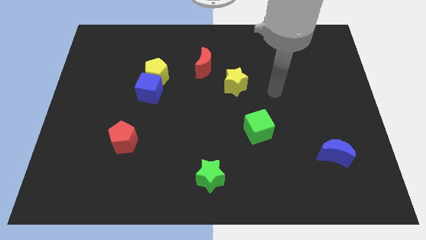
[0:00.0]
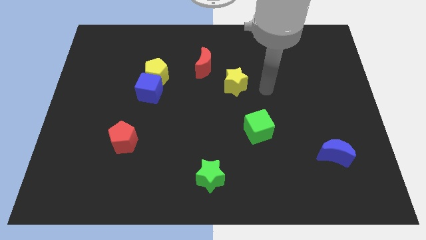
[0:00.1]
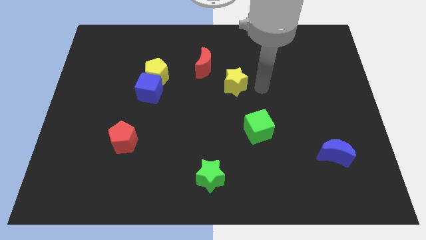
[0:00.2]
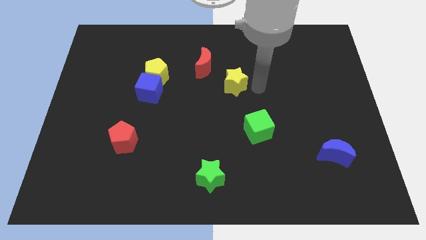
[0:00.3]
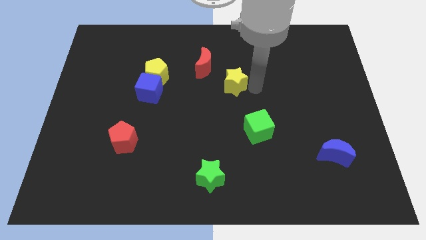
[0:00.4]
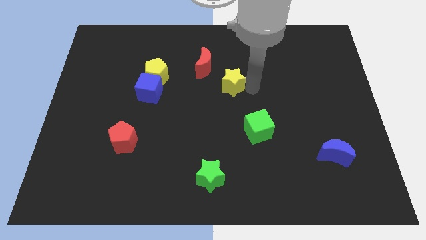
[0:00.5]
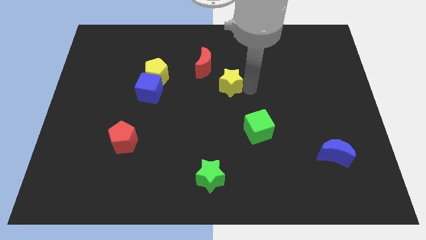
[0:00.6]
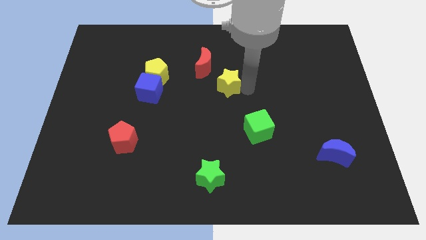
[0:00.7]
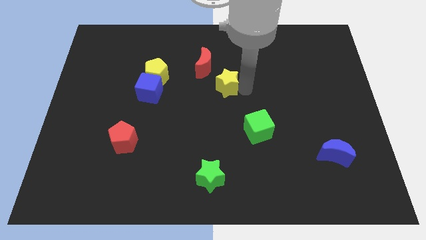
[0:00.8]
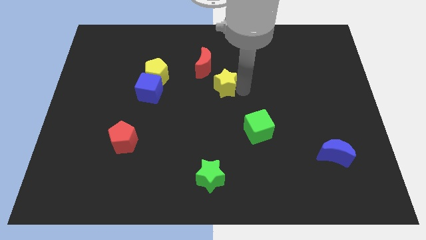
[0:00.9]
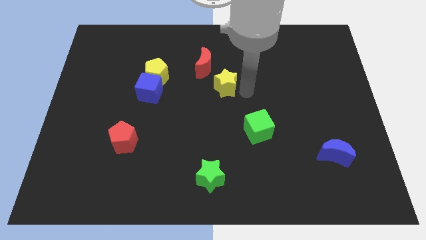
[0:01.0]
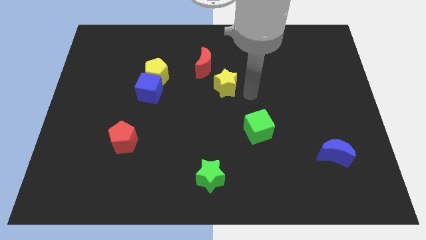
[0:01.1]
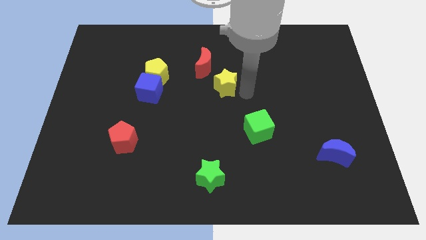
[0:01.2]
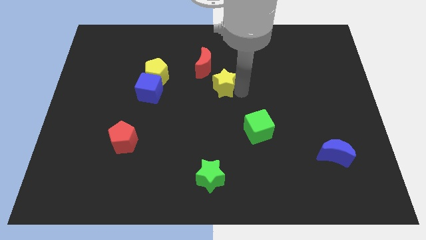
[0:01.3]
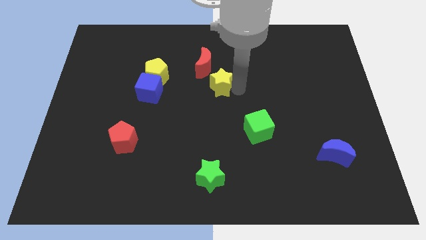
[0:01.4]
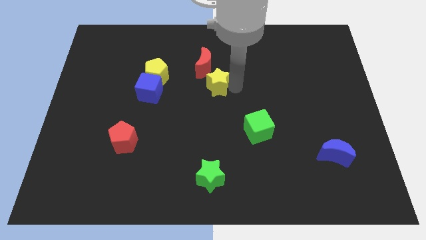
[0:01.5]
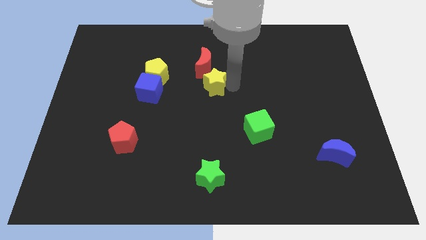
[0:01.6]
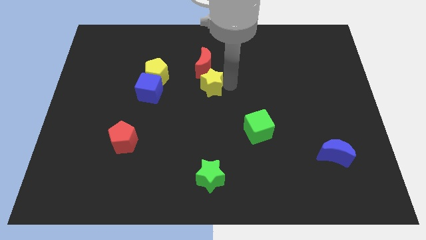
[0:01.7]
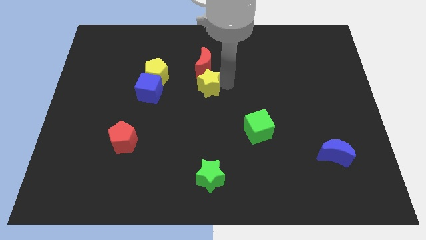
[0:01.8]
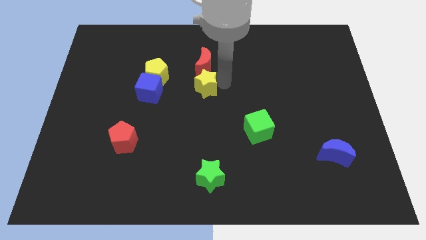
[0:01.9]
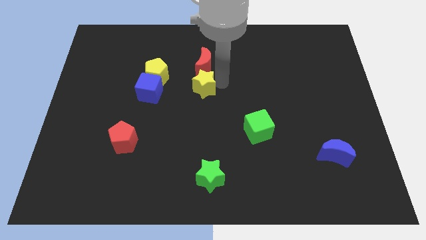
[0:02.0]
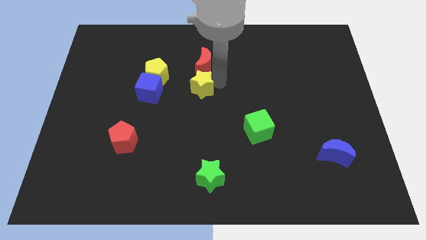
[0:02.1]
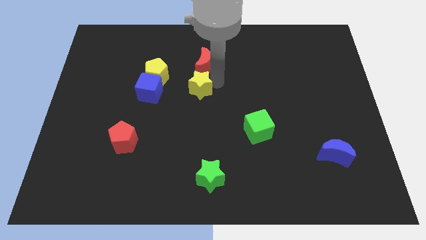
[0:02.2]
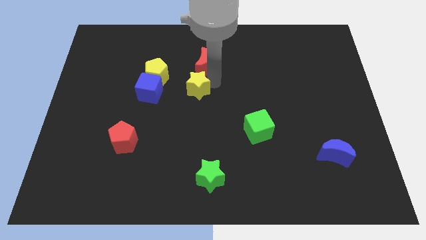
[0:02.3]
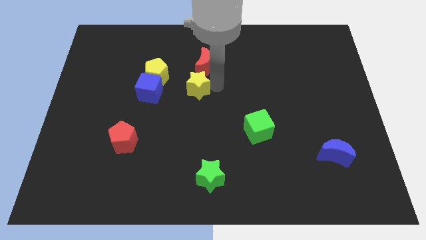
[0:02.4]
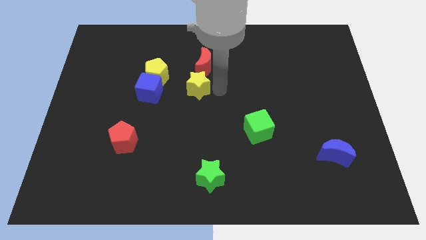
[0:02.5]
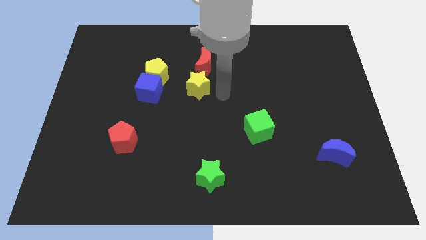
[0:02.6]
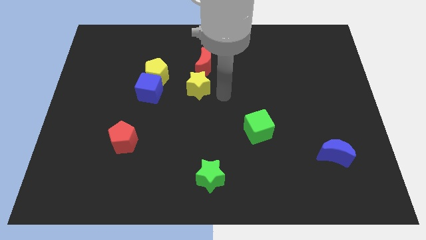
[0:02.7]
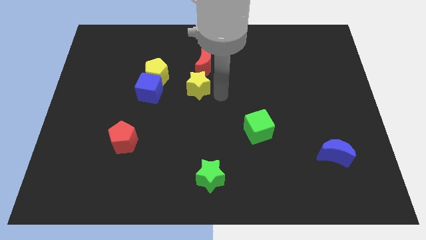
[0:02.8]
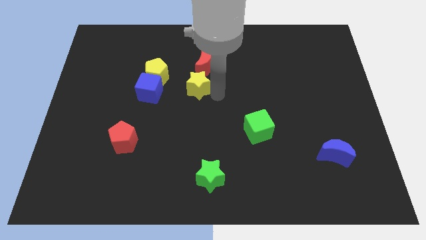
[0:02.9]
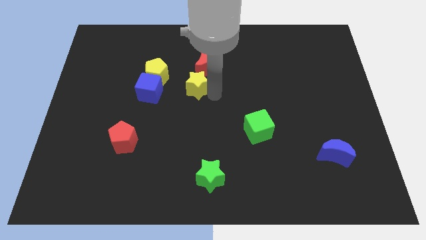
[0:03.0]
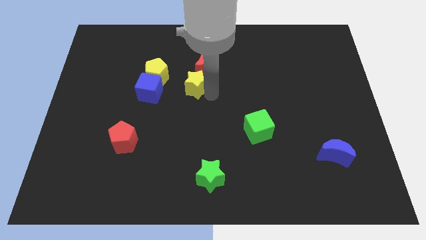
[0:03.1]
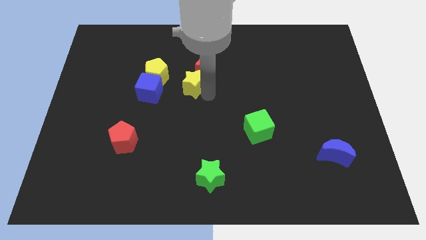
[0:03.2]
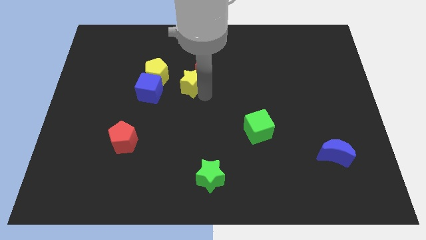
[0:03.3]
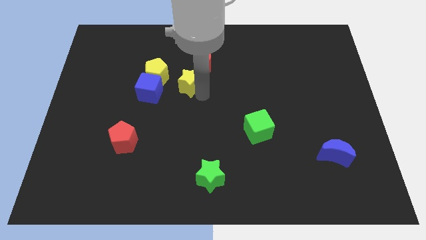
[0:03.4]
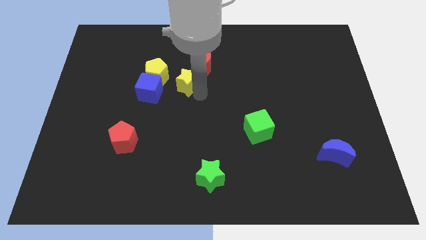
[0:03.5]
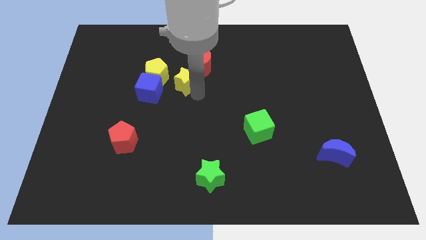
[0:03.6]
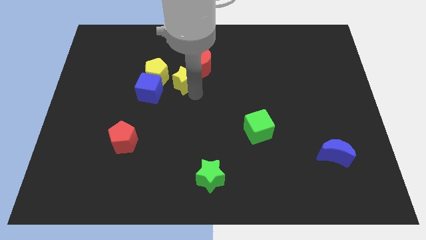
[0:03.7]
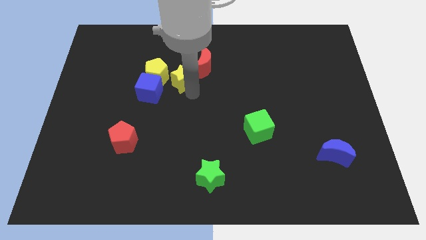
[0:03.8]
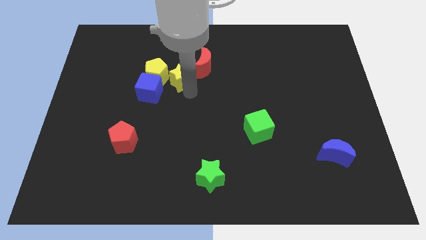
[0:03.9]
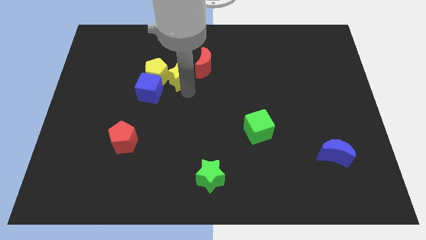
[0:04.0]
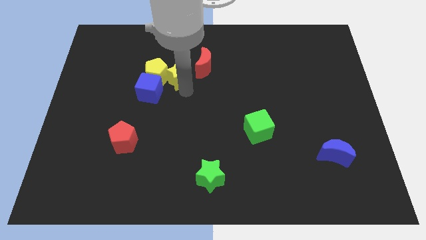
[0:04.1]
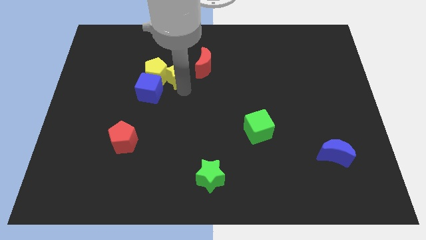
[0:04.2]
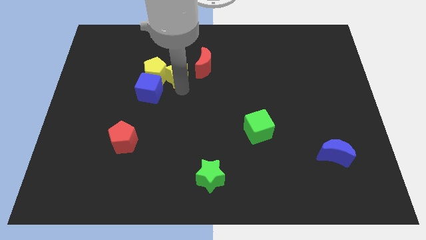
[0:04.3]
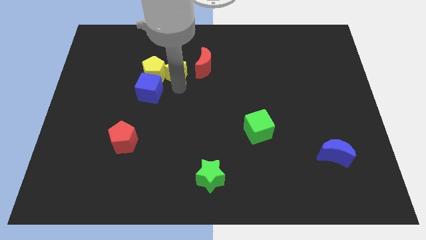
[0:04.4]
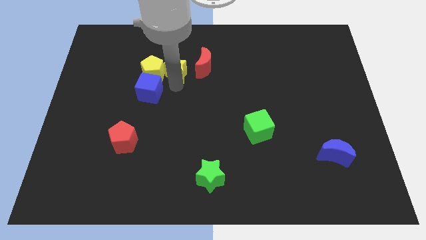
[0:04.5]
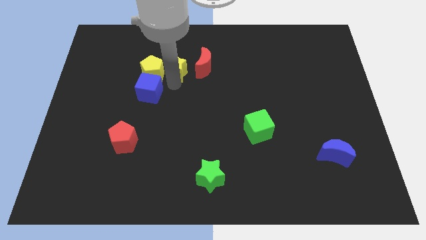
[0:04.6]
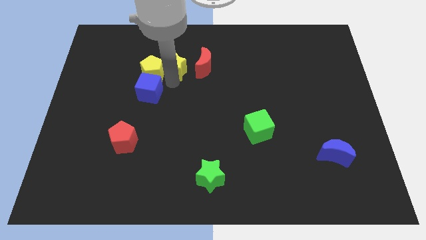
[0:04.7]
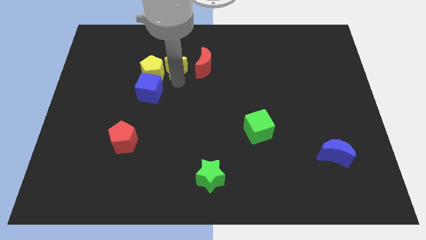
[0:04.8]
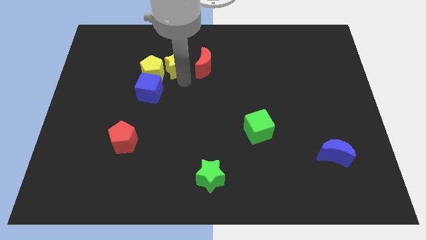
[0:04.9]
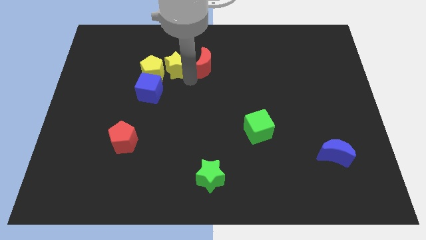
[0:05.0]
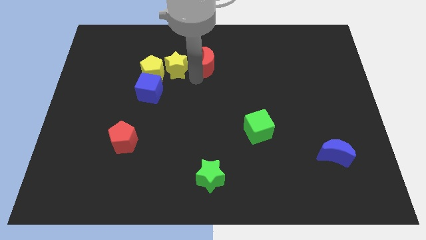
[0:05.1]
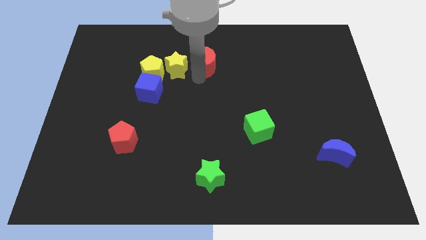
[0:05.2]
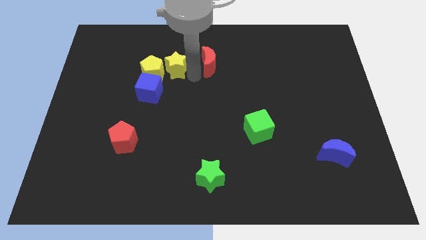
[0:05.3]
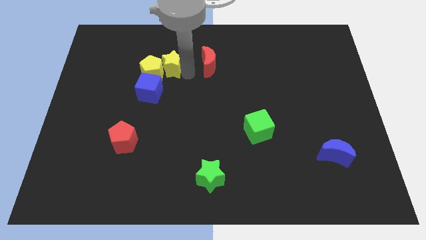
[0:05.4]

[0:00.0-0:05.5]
slide the yellow star to the top side of the blue cube
